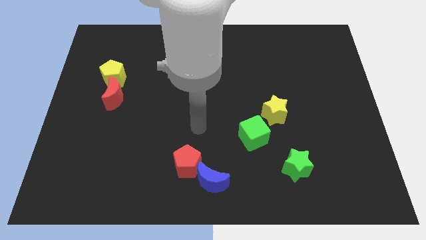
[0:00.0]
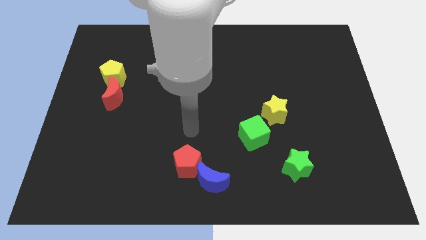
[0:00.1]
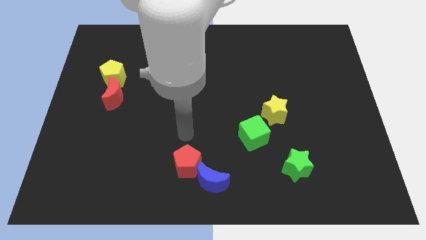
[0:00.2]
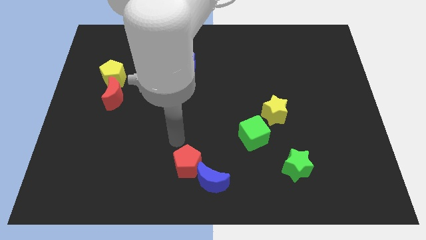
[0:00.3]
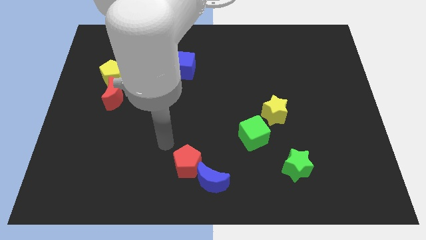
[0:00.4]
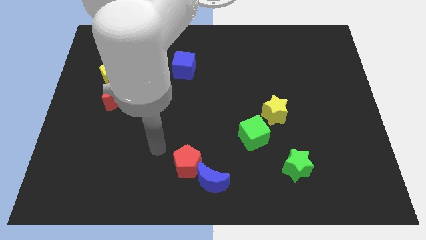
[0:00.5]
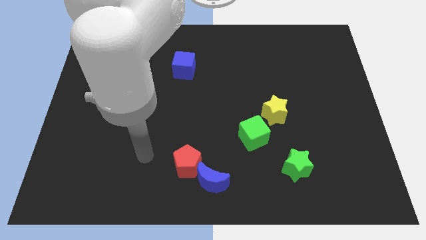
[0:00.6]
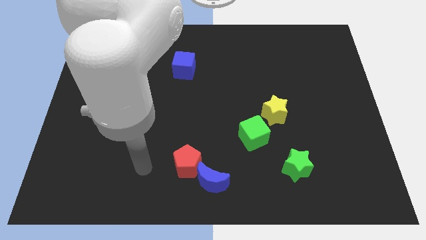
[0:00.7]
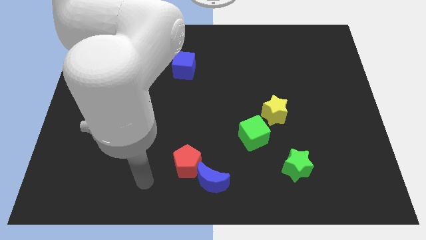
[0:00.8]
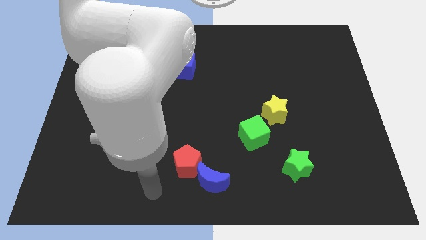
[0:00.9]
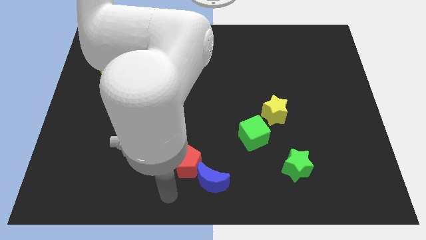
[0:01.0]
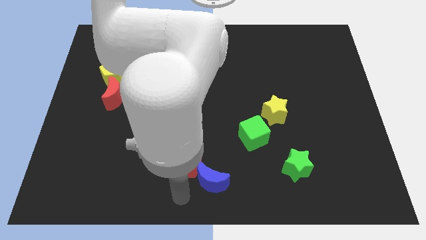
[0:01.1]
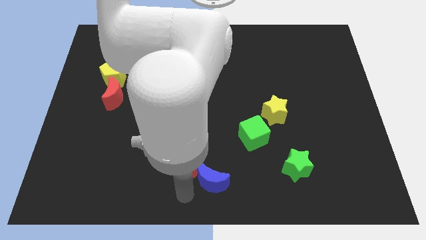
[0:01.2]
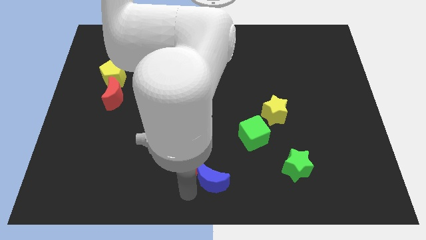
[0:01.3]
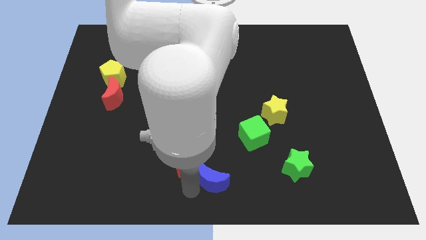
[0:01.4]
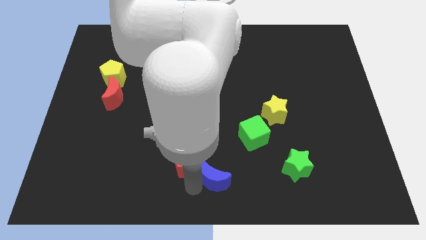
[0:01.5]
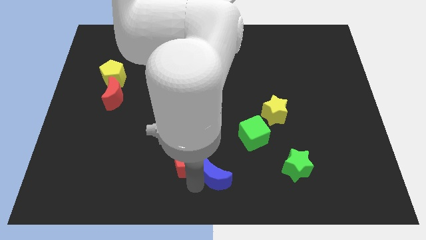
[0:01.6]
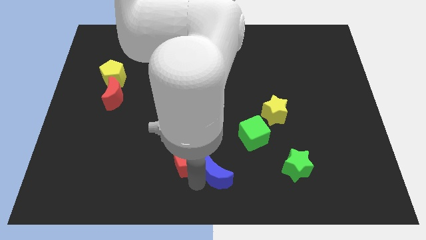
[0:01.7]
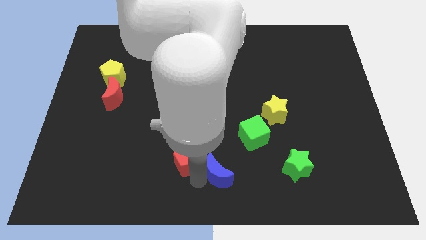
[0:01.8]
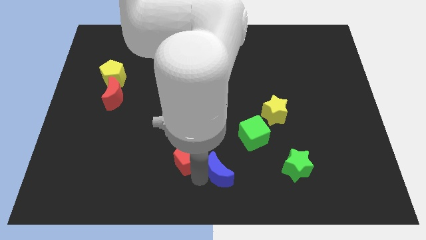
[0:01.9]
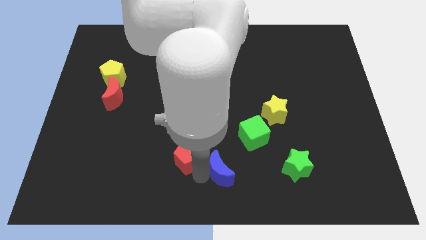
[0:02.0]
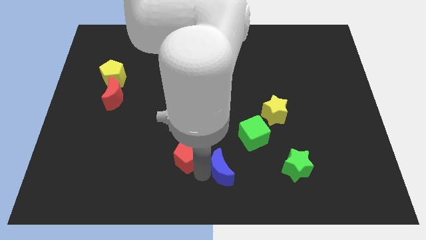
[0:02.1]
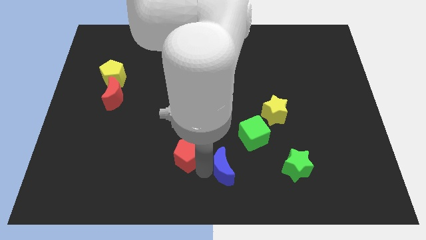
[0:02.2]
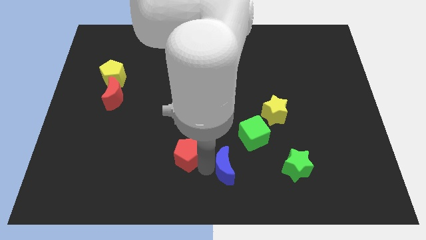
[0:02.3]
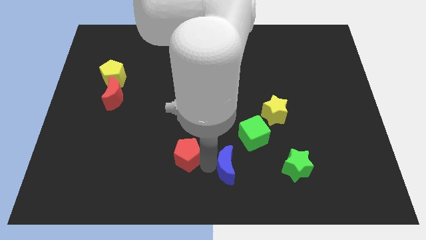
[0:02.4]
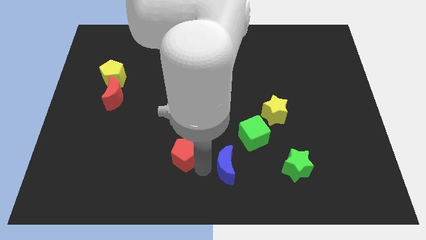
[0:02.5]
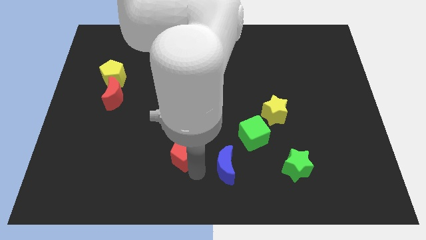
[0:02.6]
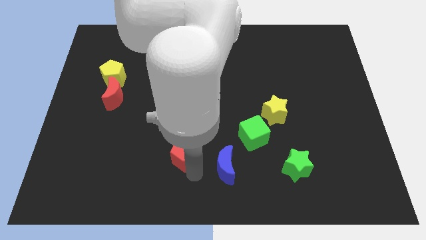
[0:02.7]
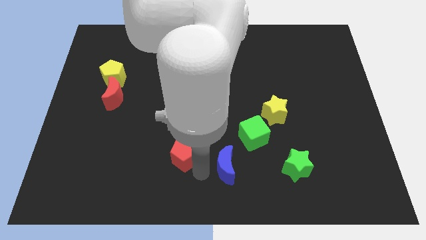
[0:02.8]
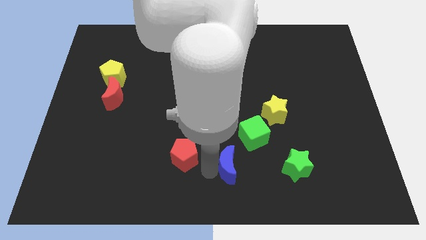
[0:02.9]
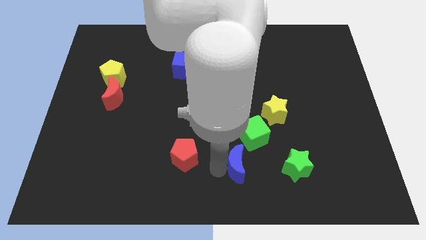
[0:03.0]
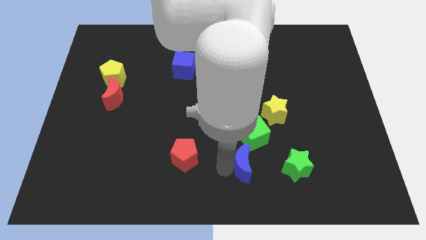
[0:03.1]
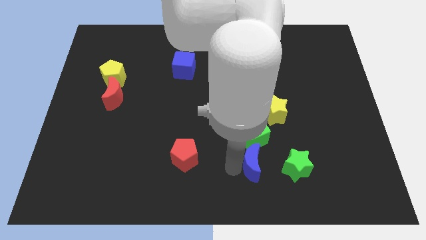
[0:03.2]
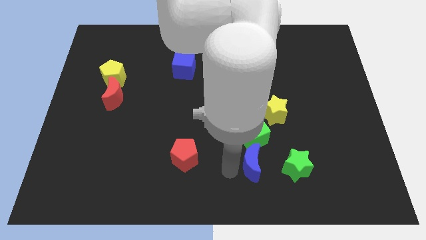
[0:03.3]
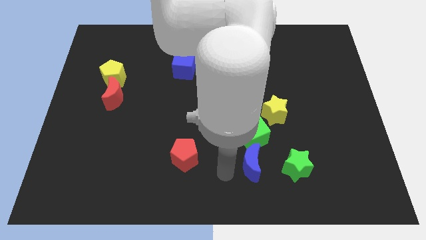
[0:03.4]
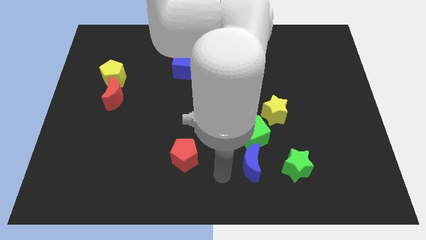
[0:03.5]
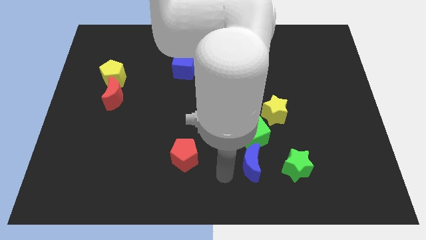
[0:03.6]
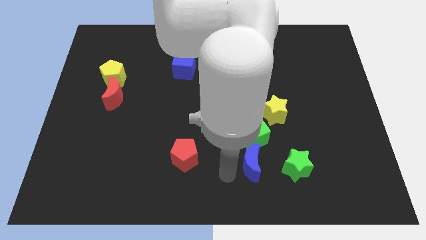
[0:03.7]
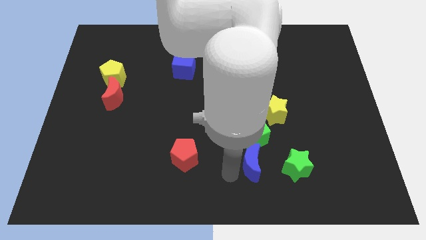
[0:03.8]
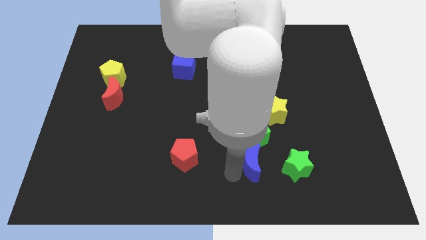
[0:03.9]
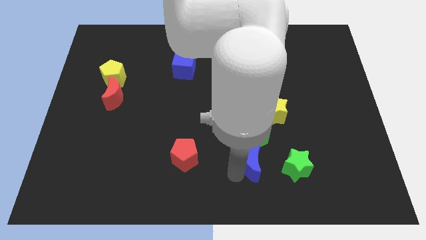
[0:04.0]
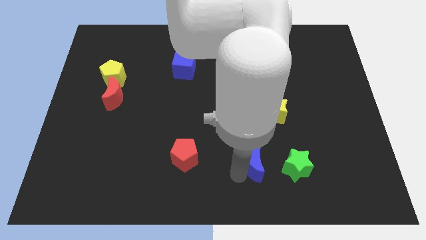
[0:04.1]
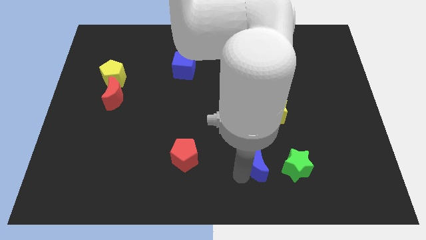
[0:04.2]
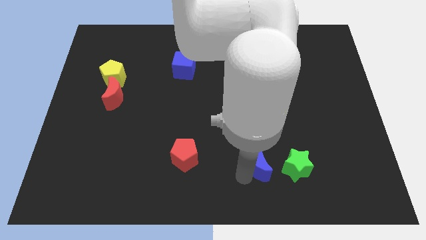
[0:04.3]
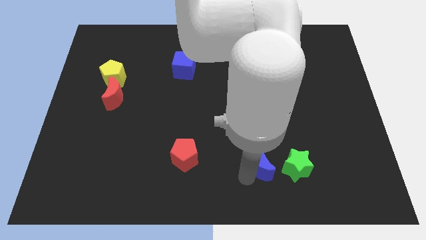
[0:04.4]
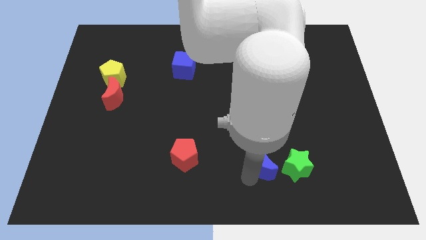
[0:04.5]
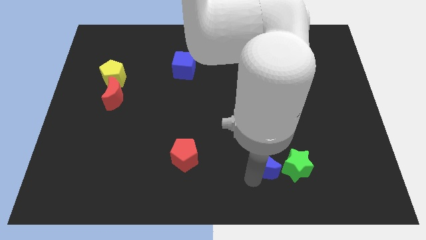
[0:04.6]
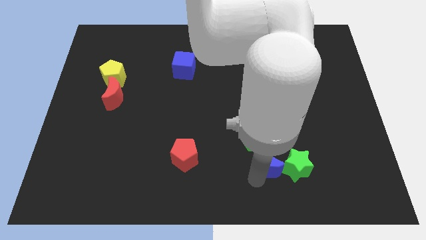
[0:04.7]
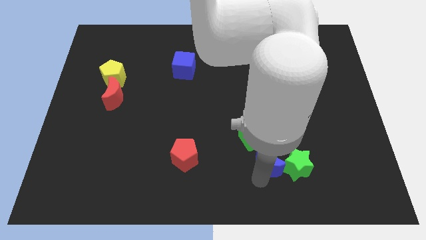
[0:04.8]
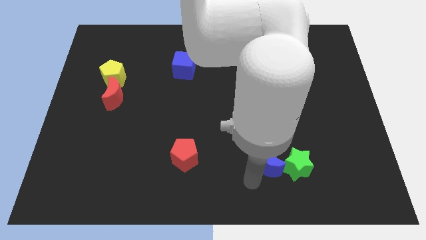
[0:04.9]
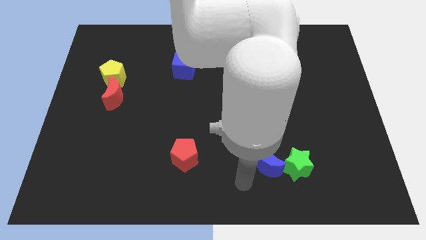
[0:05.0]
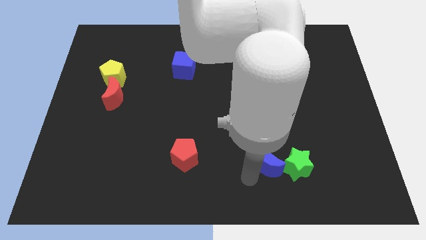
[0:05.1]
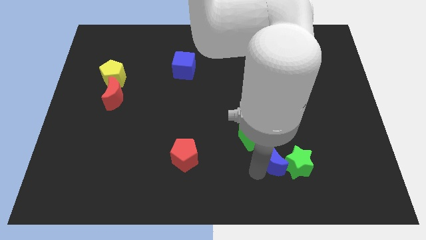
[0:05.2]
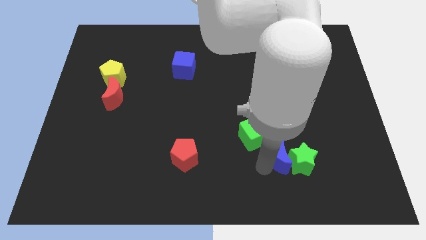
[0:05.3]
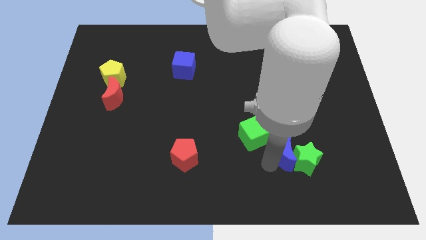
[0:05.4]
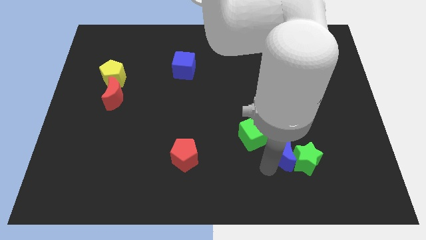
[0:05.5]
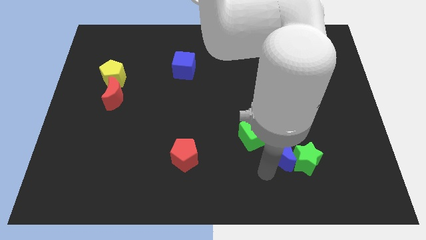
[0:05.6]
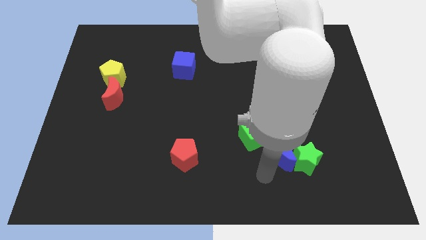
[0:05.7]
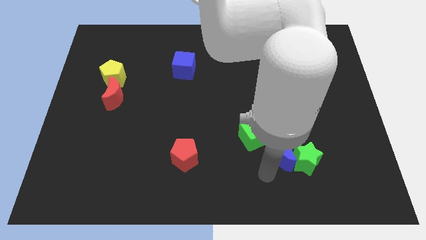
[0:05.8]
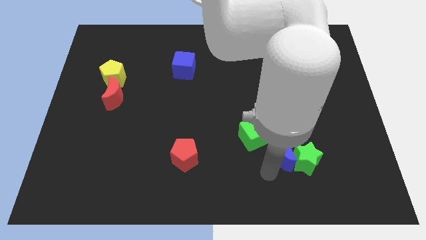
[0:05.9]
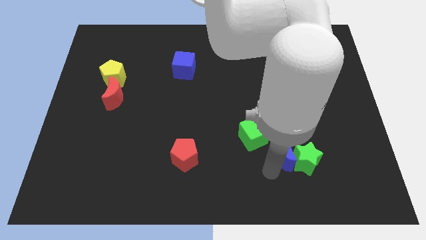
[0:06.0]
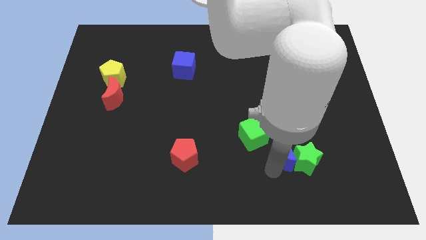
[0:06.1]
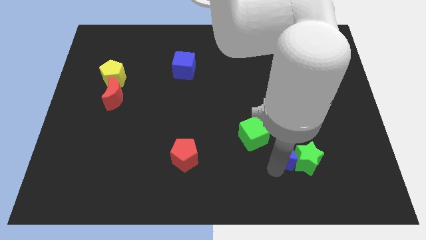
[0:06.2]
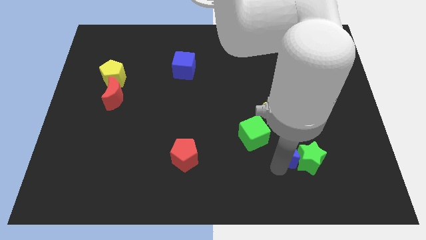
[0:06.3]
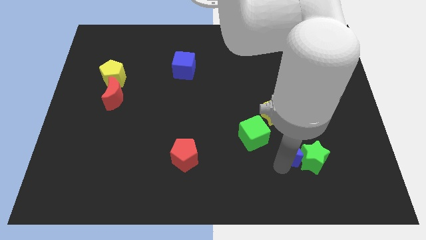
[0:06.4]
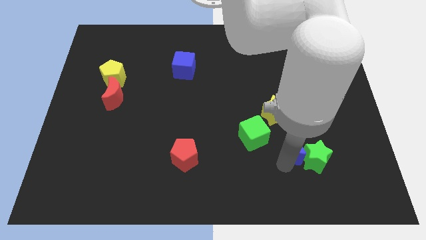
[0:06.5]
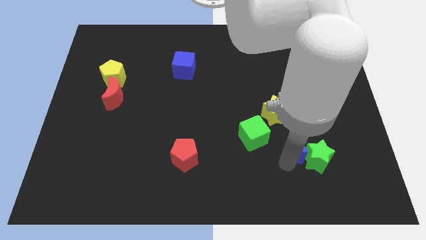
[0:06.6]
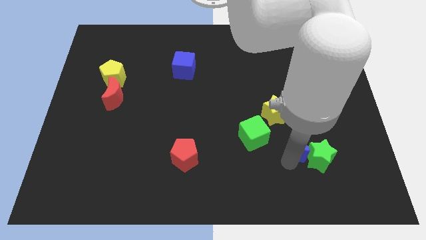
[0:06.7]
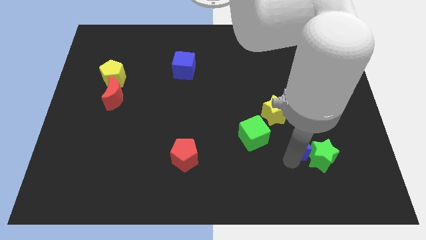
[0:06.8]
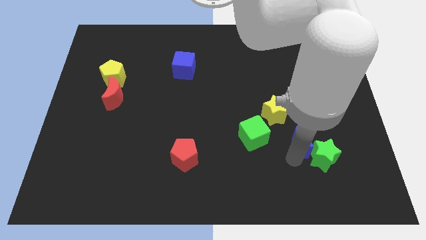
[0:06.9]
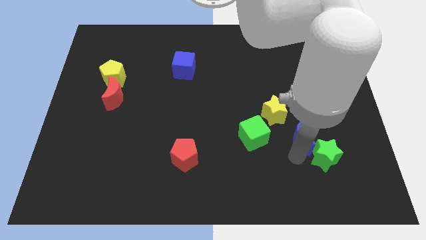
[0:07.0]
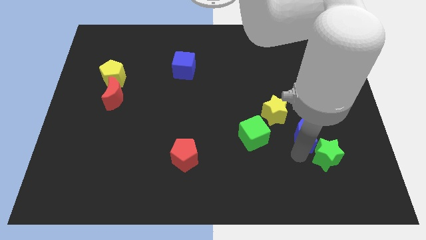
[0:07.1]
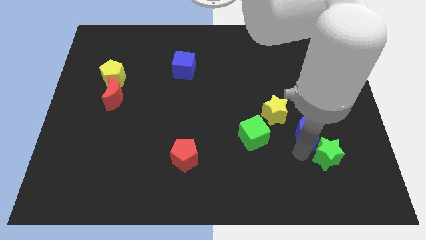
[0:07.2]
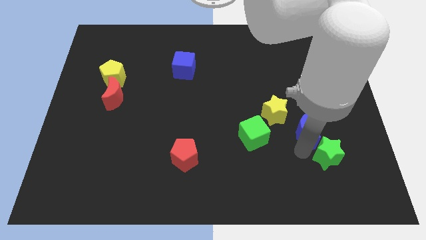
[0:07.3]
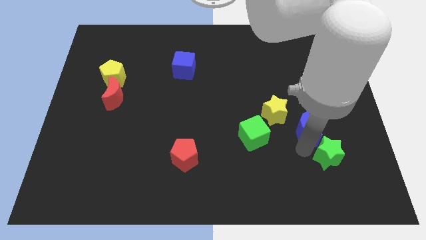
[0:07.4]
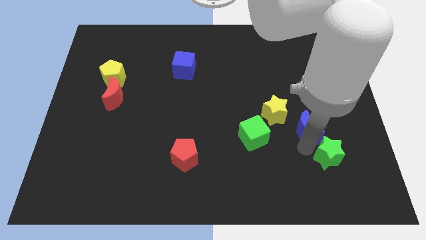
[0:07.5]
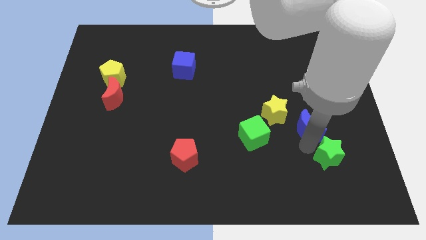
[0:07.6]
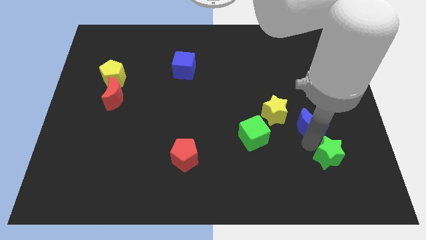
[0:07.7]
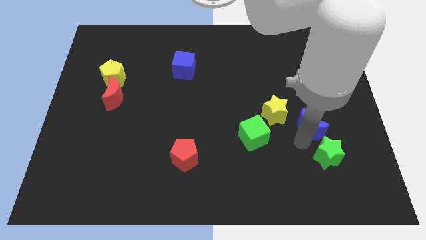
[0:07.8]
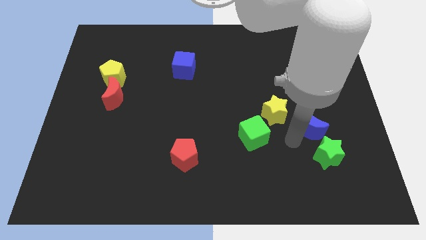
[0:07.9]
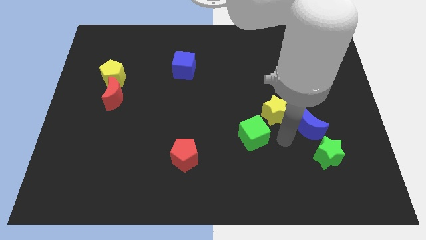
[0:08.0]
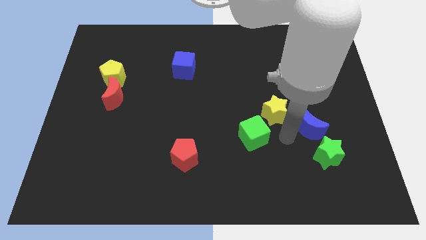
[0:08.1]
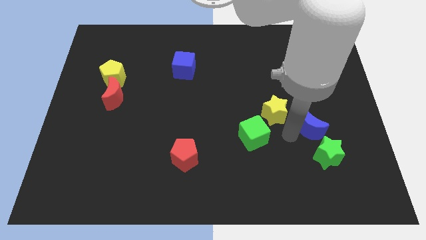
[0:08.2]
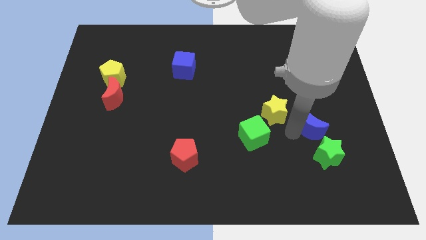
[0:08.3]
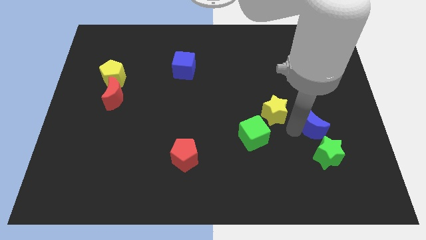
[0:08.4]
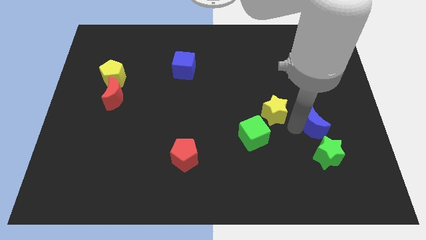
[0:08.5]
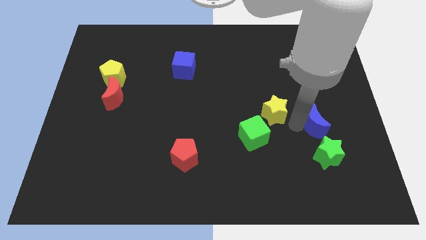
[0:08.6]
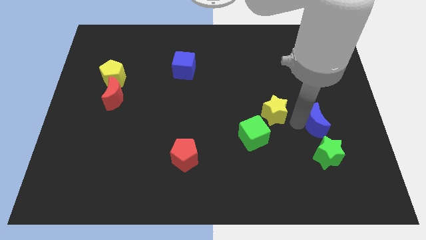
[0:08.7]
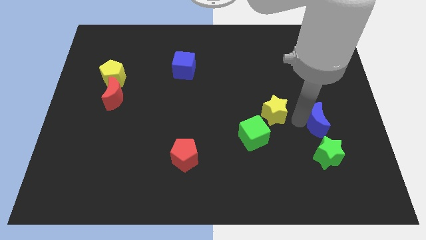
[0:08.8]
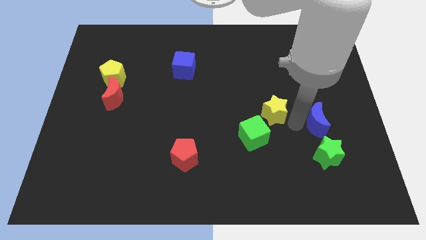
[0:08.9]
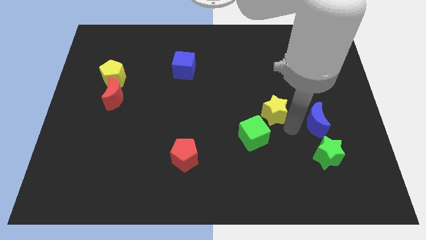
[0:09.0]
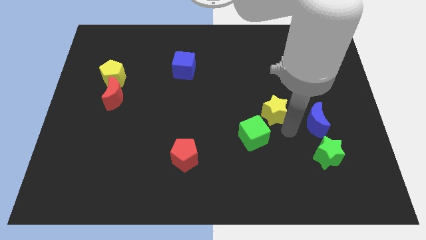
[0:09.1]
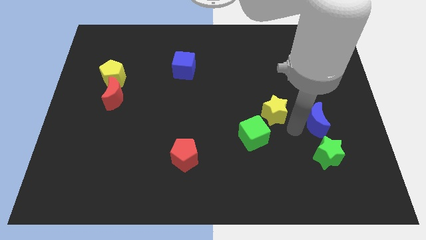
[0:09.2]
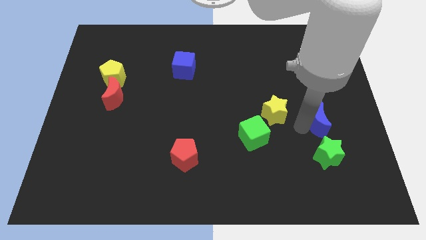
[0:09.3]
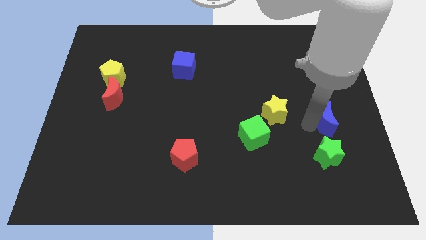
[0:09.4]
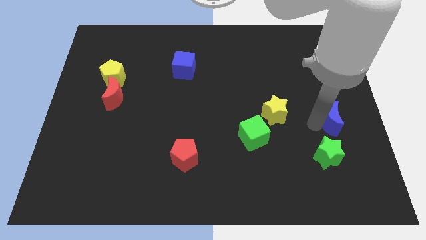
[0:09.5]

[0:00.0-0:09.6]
put the blue moon to the center right
